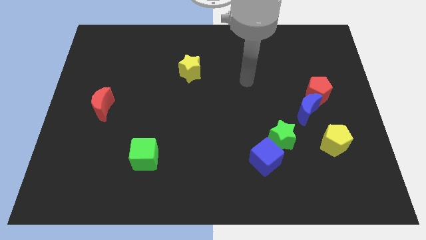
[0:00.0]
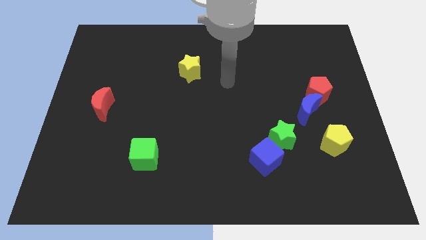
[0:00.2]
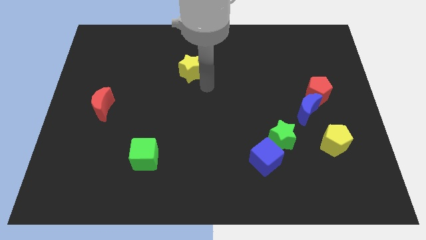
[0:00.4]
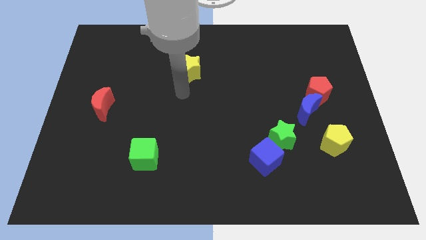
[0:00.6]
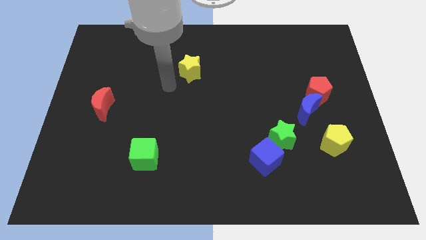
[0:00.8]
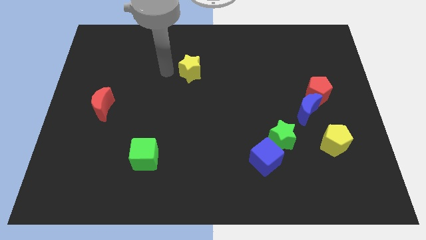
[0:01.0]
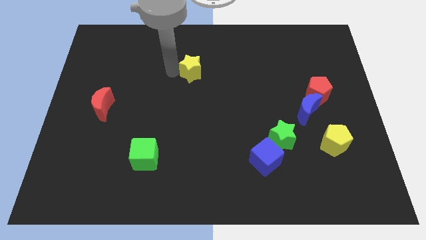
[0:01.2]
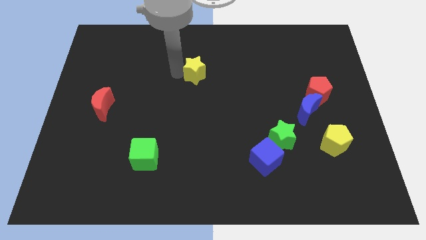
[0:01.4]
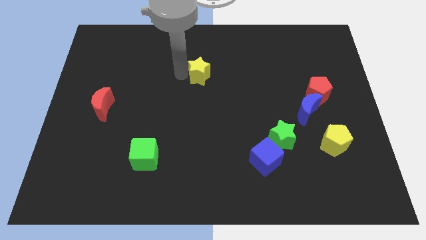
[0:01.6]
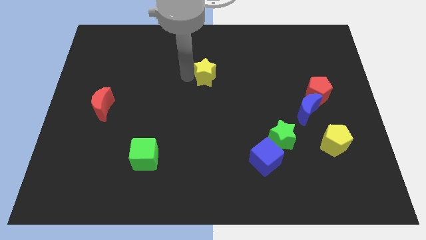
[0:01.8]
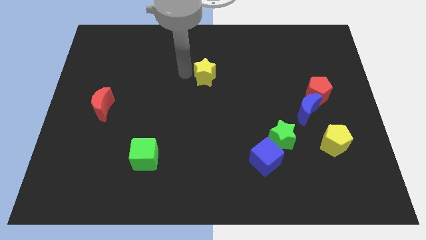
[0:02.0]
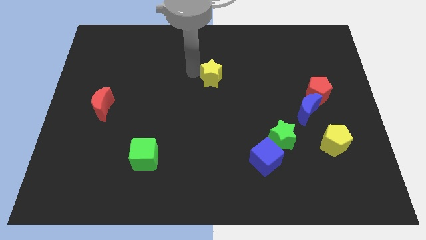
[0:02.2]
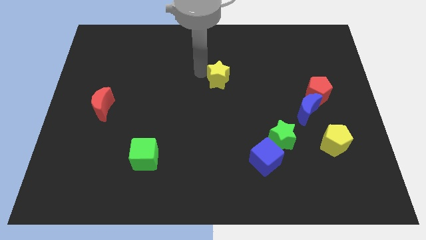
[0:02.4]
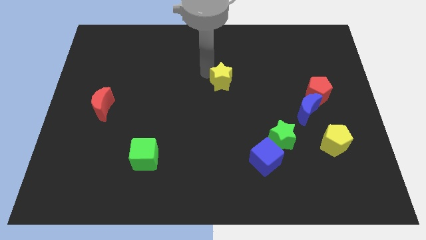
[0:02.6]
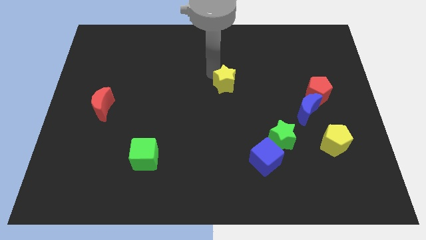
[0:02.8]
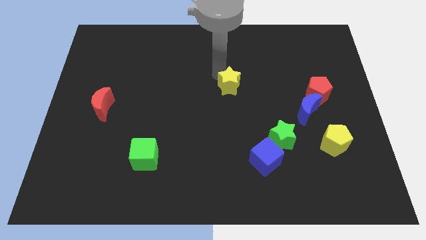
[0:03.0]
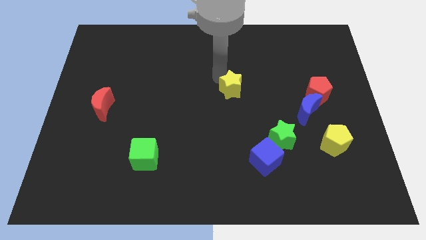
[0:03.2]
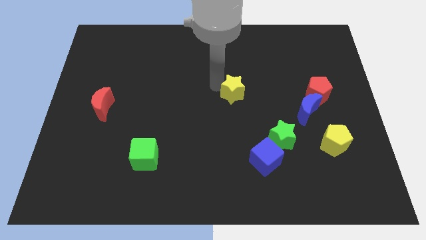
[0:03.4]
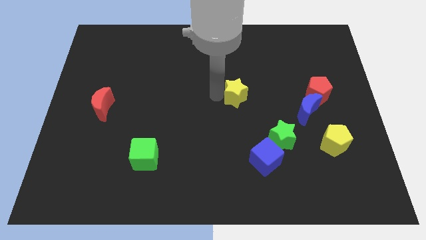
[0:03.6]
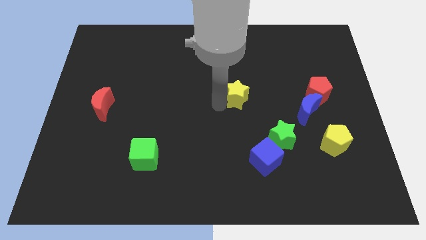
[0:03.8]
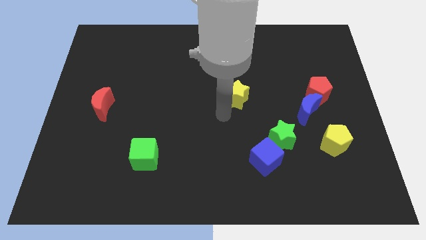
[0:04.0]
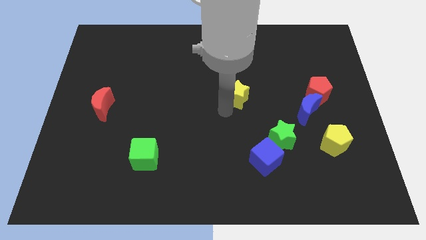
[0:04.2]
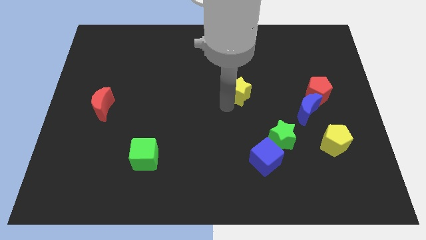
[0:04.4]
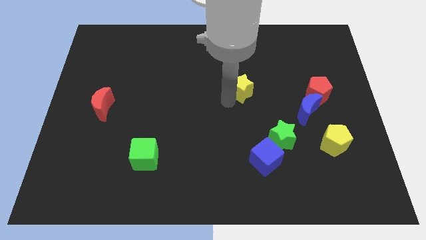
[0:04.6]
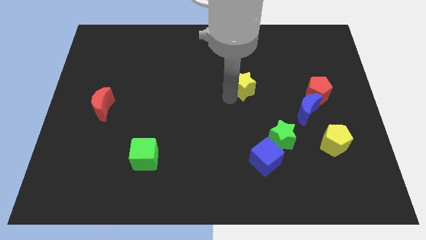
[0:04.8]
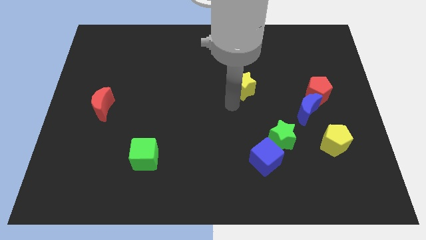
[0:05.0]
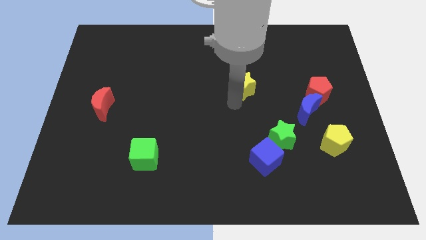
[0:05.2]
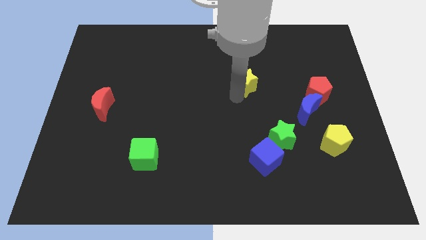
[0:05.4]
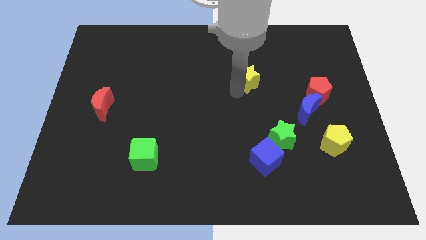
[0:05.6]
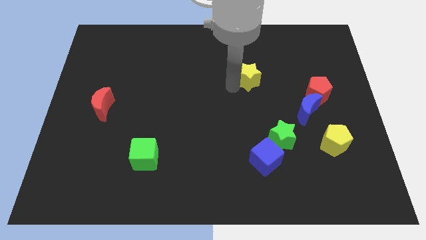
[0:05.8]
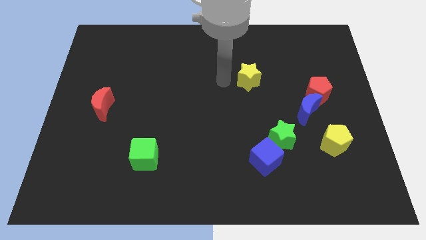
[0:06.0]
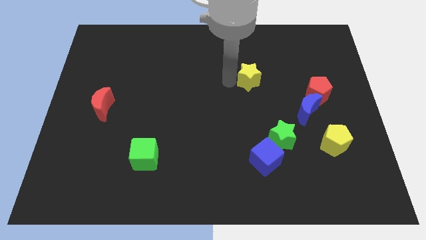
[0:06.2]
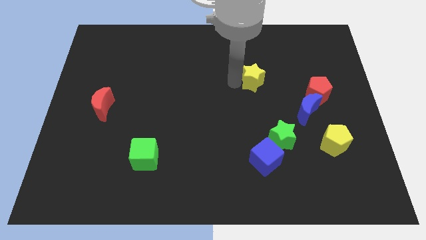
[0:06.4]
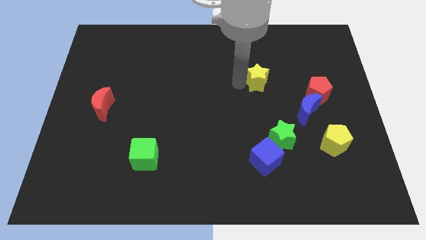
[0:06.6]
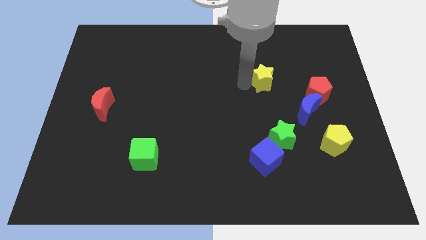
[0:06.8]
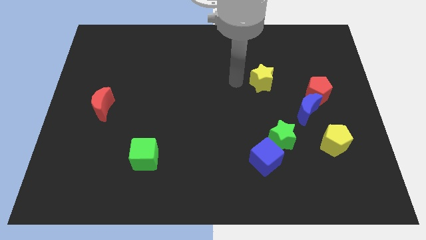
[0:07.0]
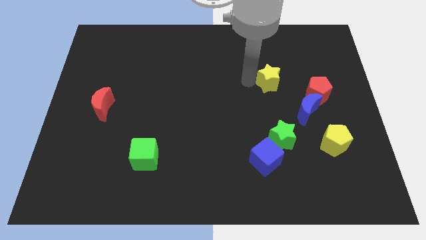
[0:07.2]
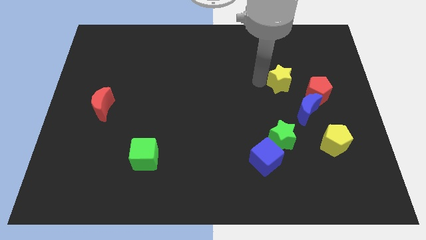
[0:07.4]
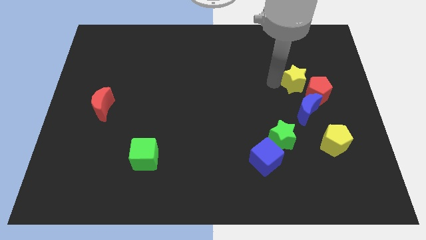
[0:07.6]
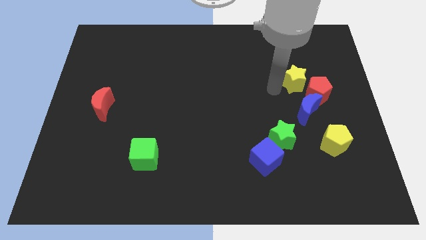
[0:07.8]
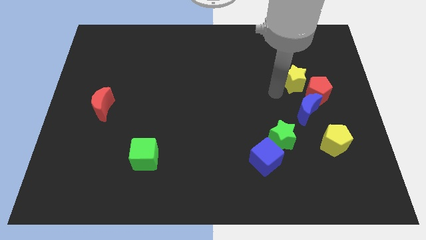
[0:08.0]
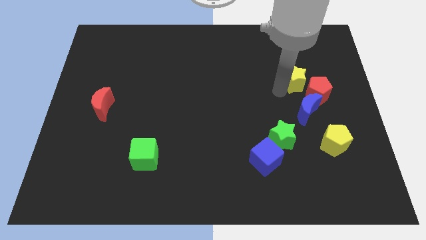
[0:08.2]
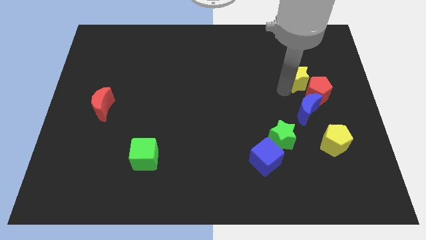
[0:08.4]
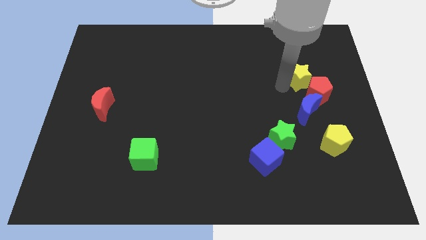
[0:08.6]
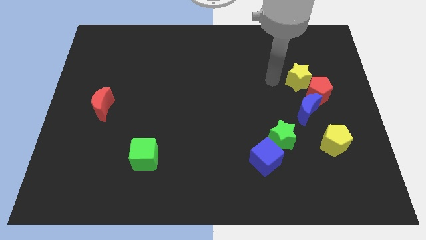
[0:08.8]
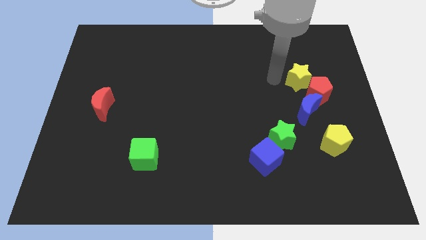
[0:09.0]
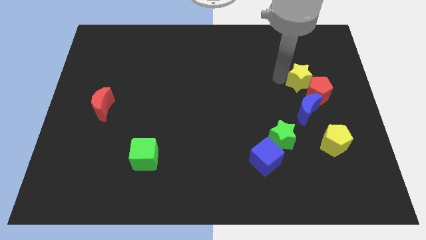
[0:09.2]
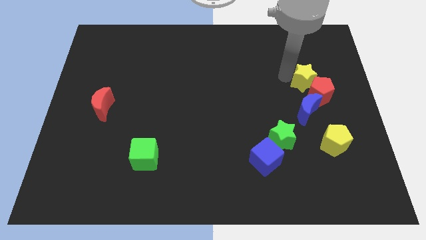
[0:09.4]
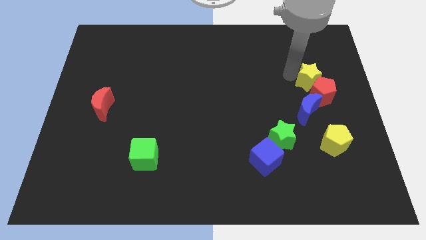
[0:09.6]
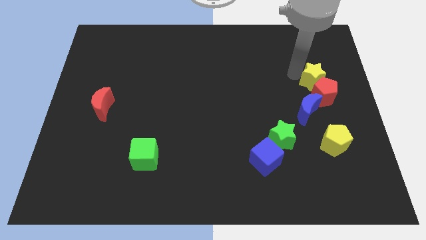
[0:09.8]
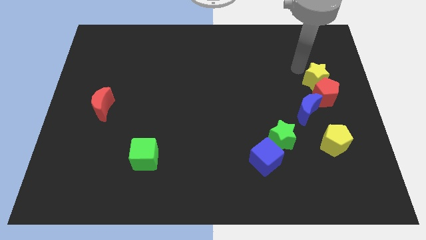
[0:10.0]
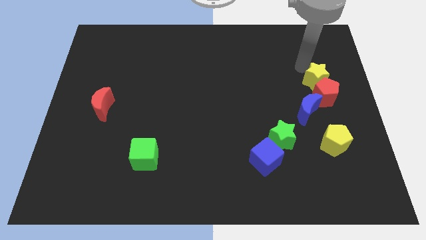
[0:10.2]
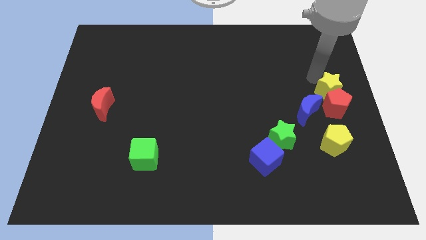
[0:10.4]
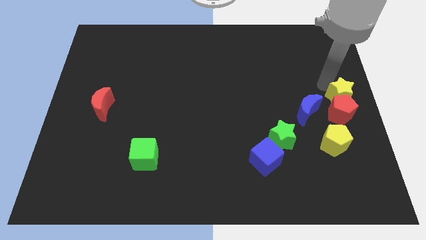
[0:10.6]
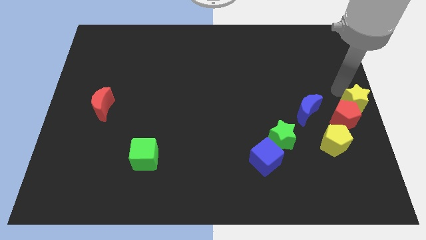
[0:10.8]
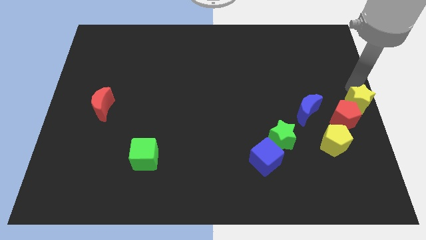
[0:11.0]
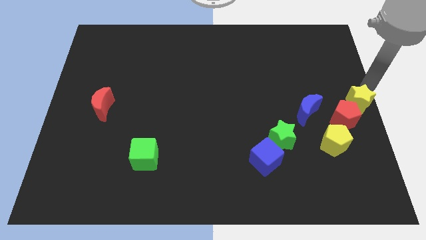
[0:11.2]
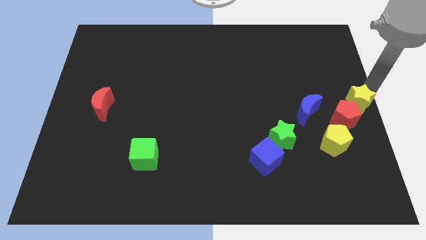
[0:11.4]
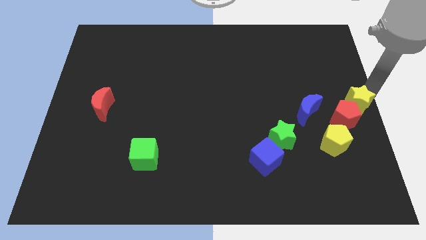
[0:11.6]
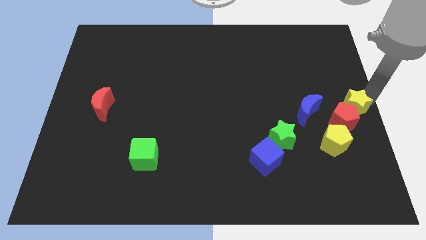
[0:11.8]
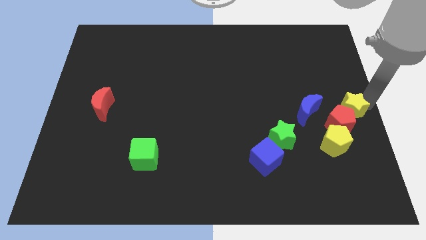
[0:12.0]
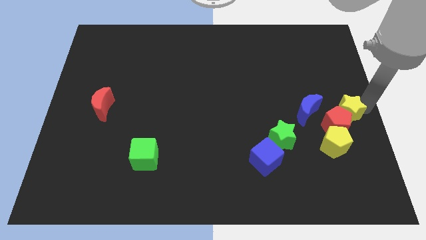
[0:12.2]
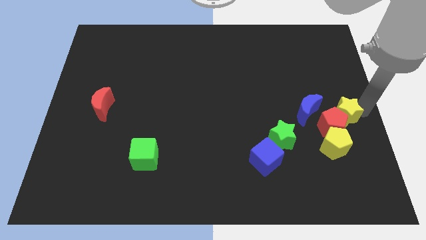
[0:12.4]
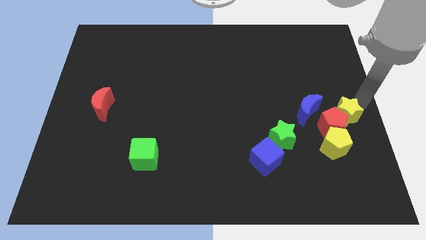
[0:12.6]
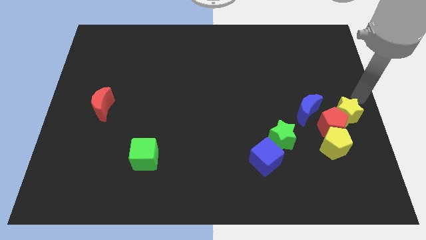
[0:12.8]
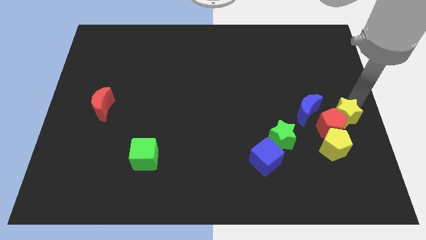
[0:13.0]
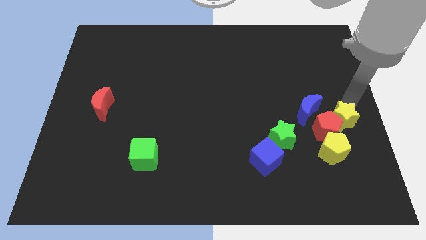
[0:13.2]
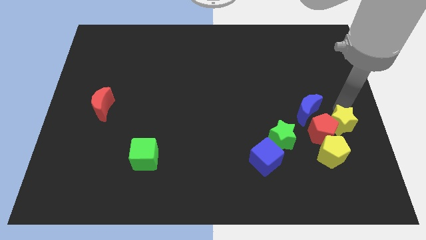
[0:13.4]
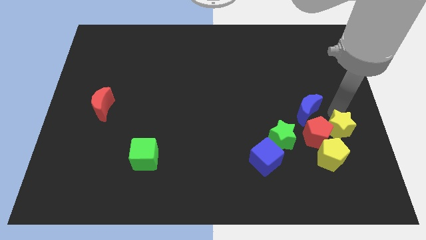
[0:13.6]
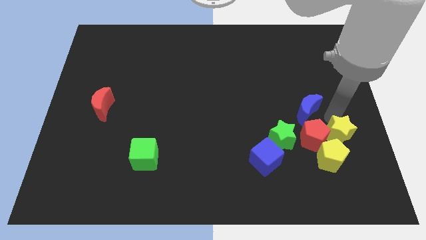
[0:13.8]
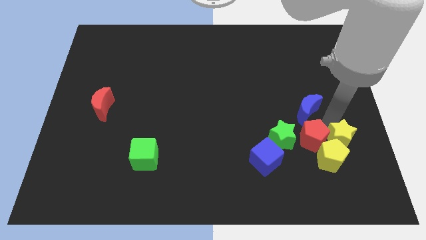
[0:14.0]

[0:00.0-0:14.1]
push the yellow star next to the yellow pentagon
